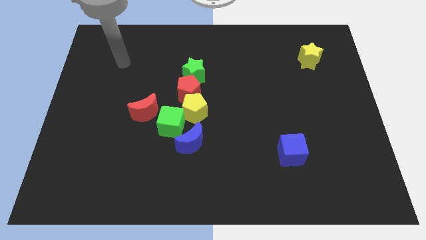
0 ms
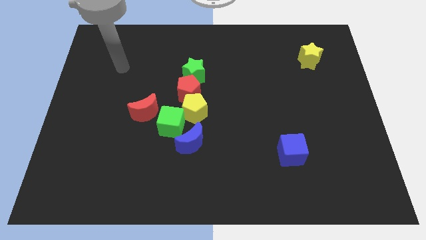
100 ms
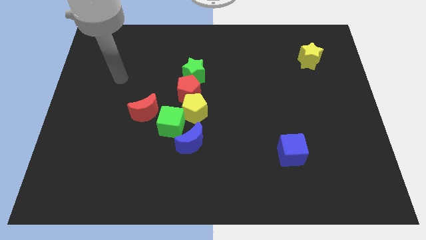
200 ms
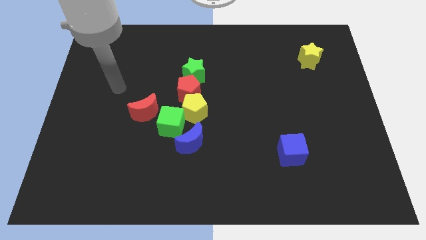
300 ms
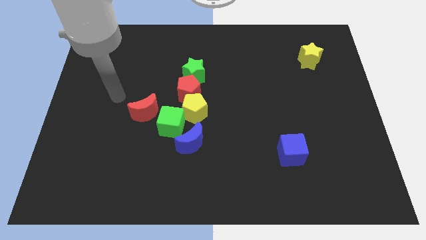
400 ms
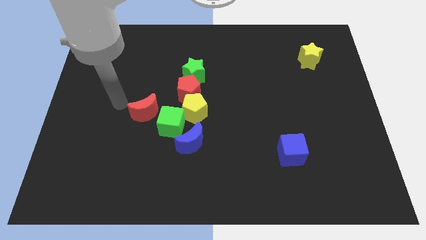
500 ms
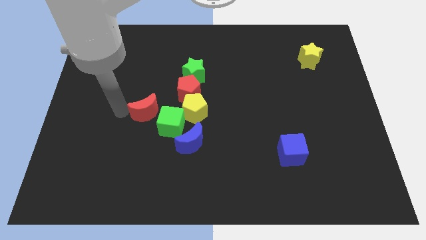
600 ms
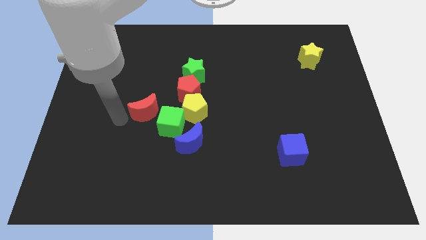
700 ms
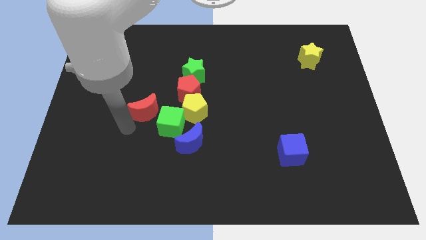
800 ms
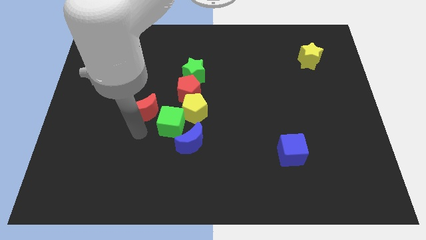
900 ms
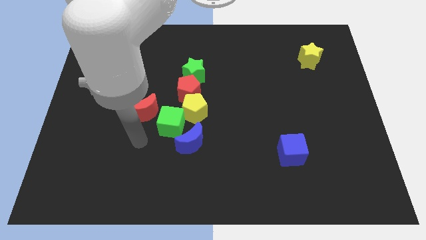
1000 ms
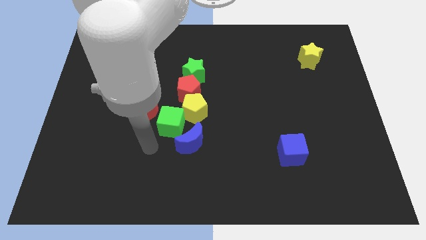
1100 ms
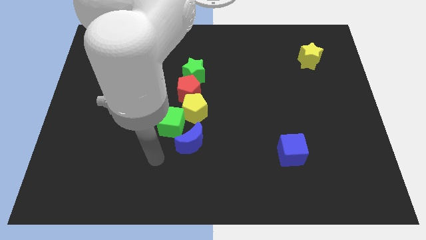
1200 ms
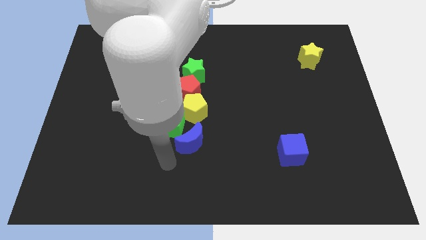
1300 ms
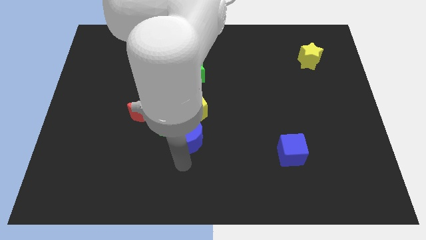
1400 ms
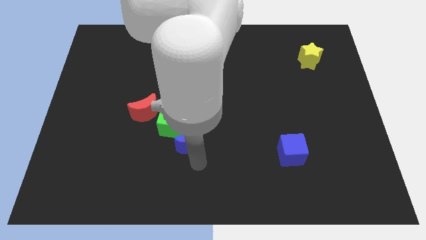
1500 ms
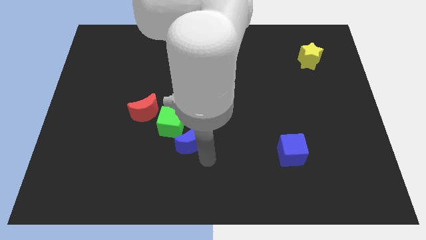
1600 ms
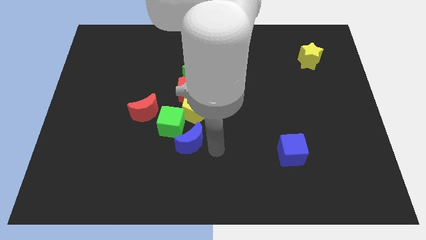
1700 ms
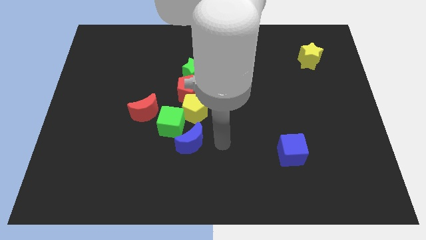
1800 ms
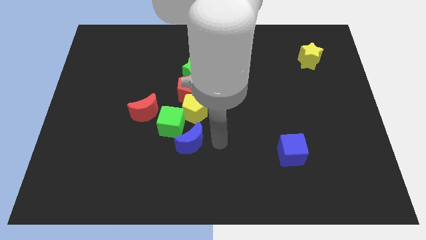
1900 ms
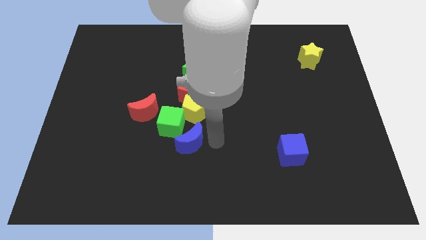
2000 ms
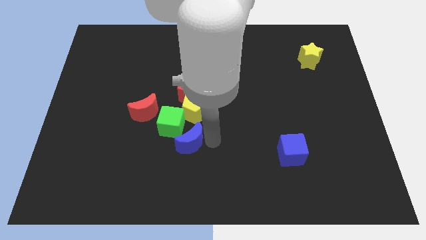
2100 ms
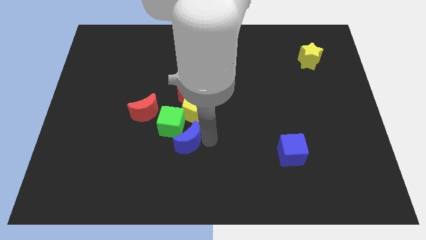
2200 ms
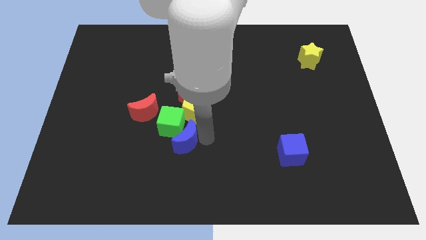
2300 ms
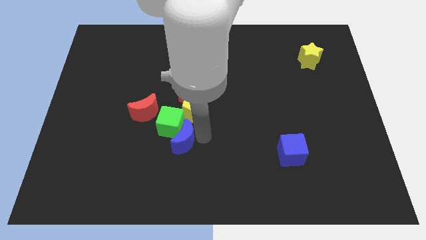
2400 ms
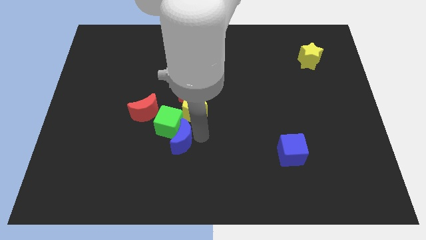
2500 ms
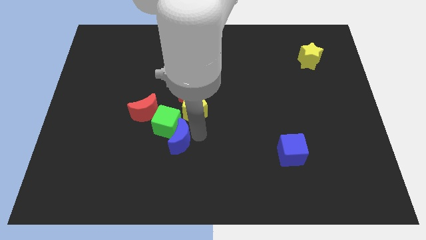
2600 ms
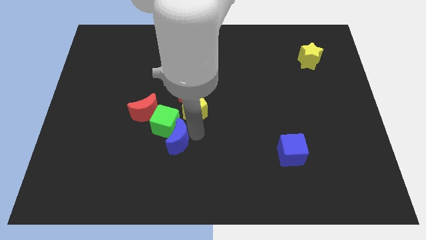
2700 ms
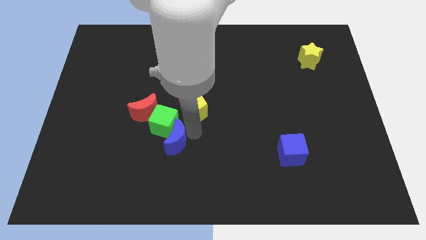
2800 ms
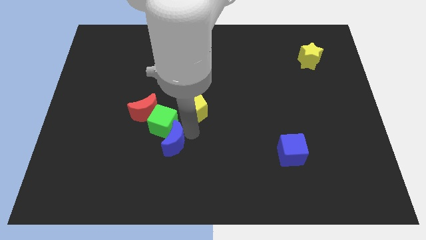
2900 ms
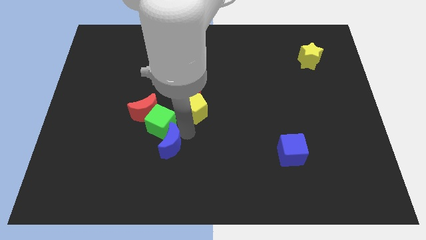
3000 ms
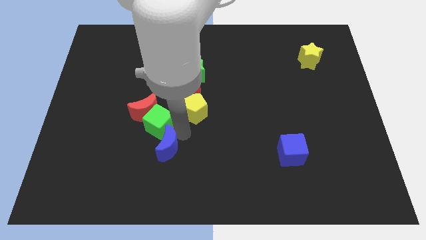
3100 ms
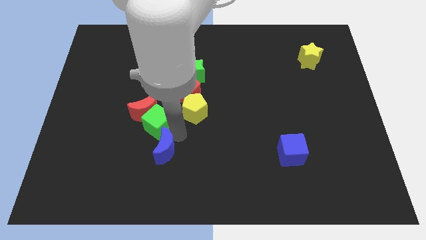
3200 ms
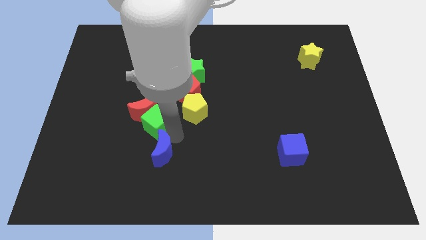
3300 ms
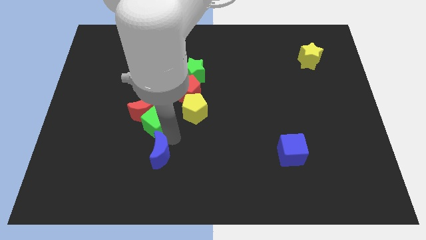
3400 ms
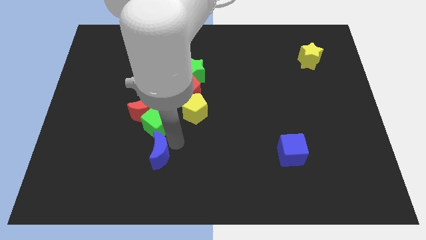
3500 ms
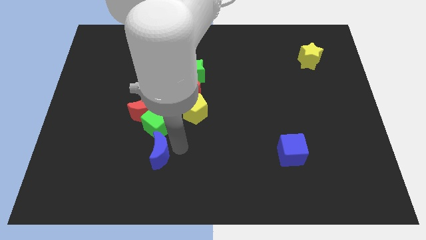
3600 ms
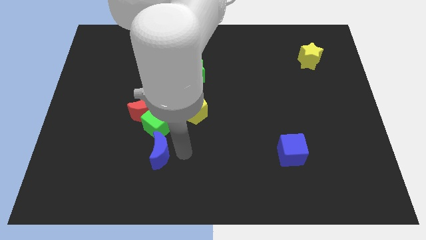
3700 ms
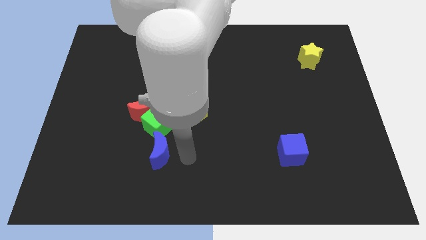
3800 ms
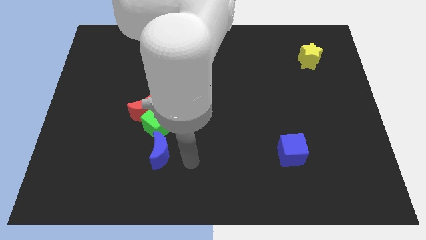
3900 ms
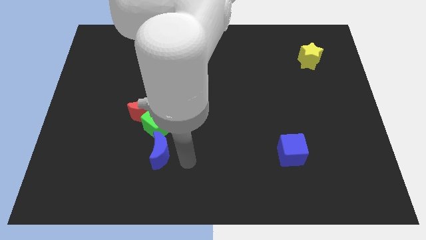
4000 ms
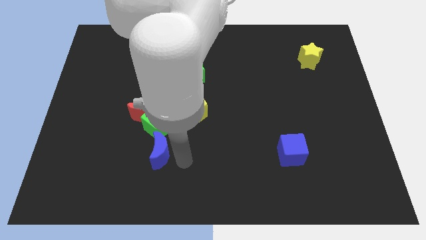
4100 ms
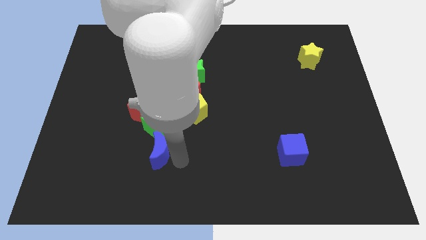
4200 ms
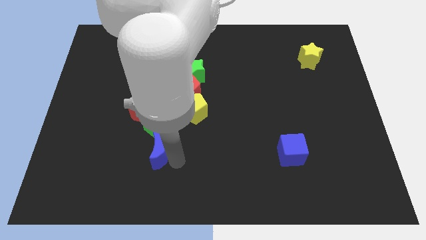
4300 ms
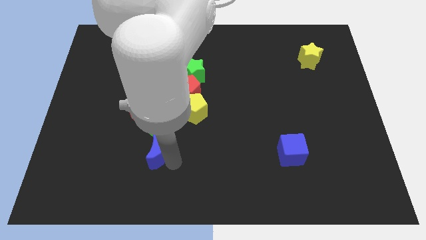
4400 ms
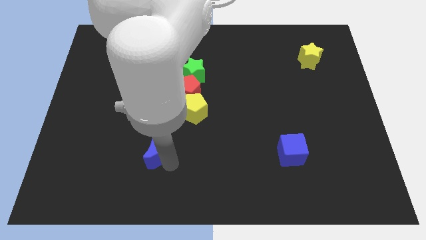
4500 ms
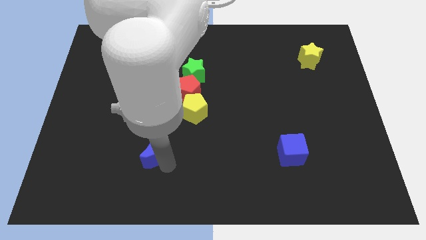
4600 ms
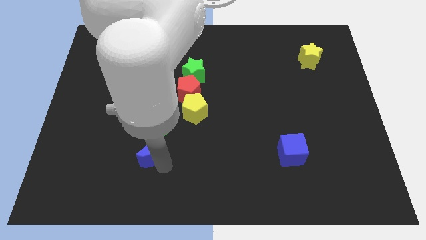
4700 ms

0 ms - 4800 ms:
push the blue moon diagonally down and to the left of the green cube

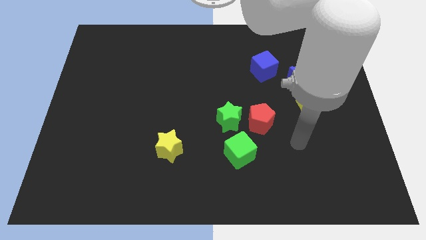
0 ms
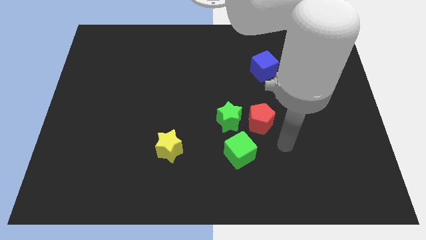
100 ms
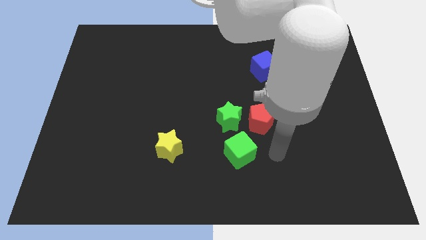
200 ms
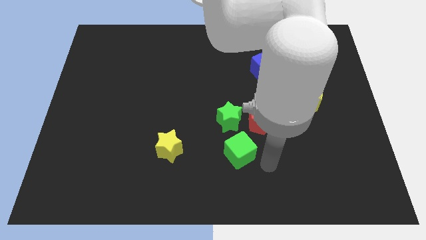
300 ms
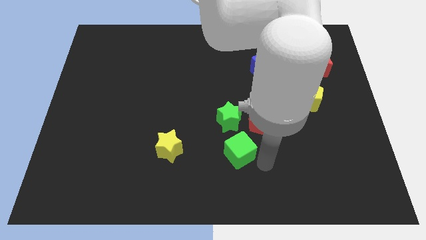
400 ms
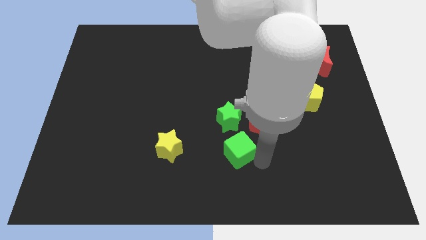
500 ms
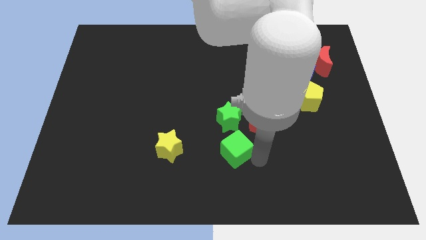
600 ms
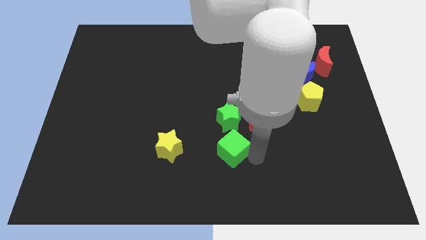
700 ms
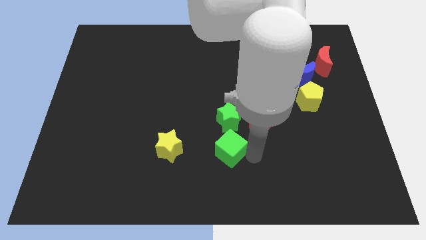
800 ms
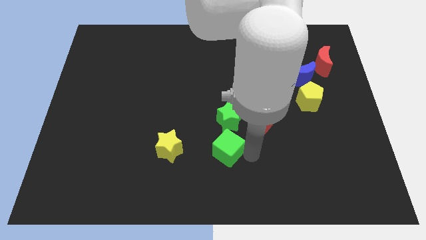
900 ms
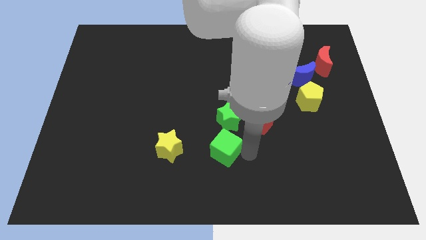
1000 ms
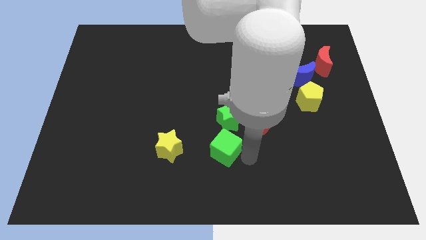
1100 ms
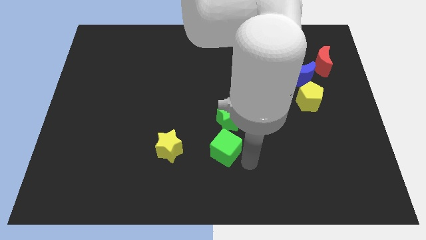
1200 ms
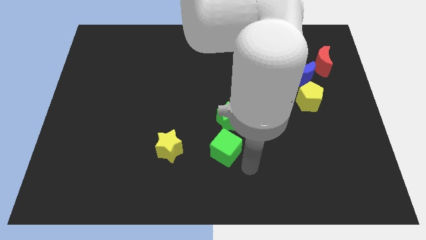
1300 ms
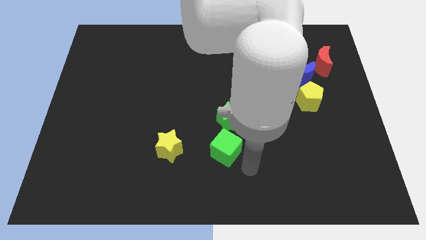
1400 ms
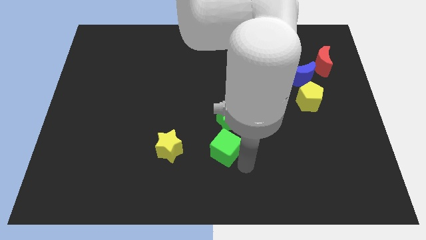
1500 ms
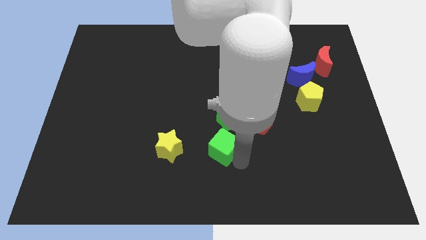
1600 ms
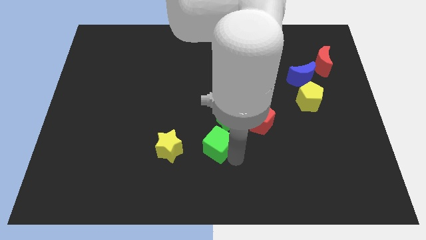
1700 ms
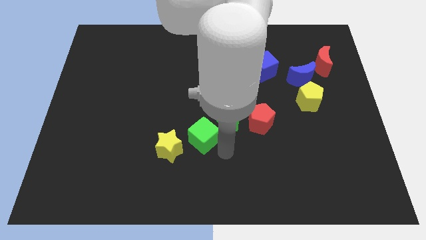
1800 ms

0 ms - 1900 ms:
move the green cube to the left side of the green star
